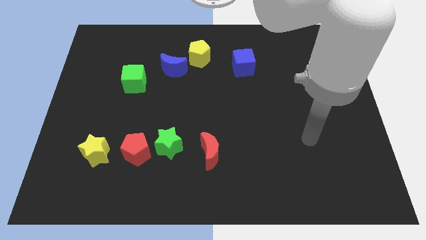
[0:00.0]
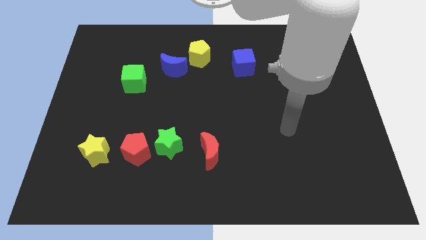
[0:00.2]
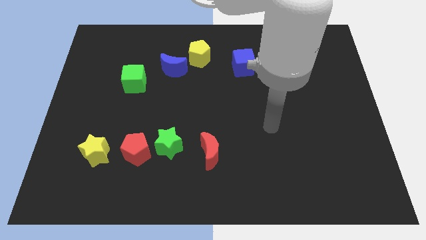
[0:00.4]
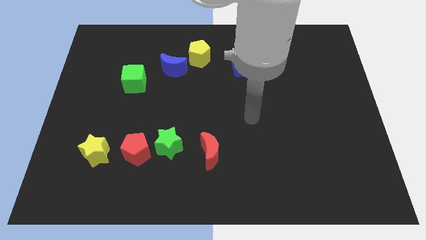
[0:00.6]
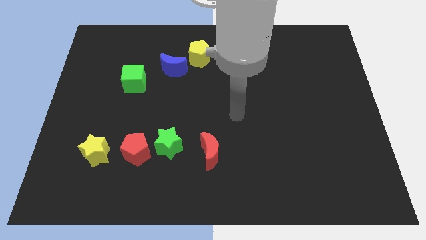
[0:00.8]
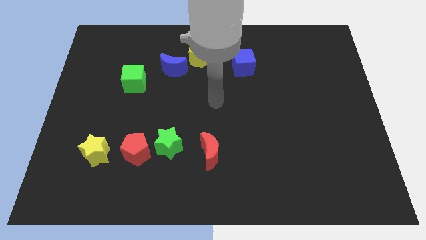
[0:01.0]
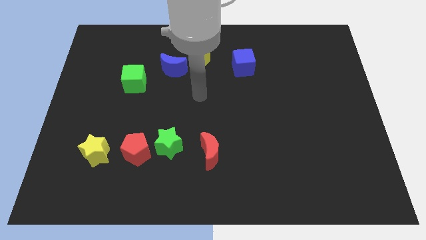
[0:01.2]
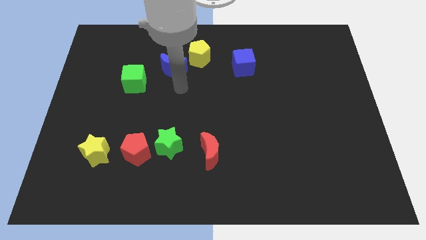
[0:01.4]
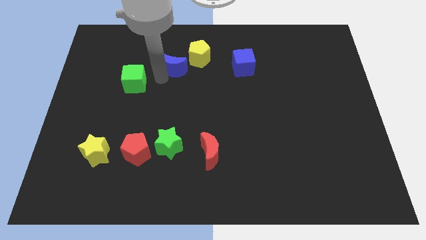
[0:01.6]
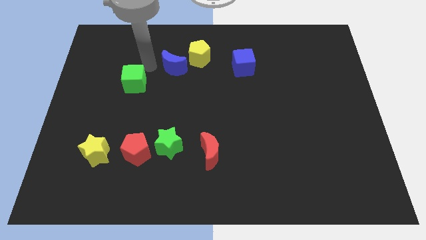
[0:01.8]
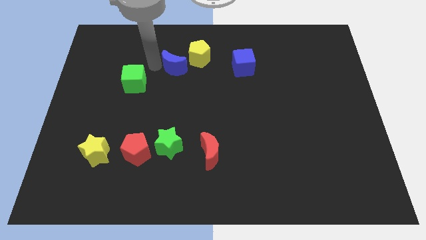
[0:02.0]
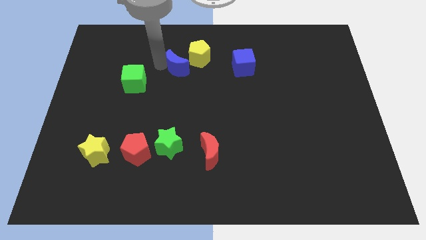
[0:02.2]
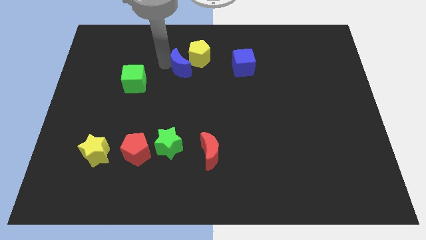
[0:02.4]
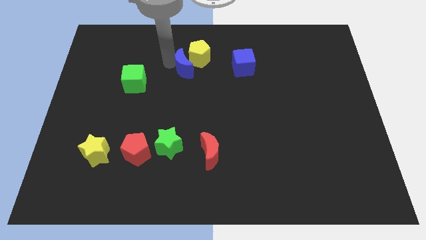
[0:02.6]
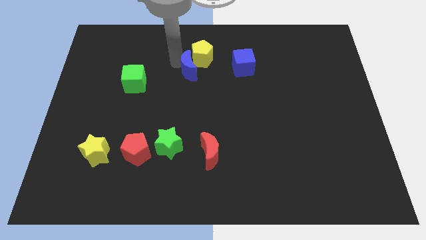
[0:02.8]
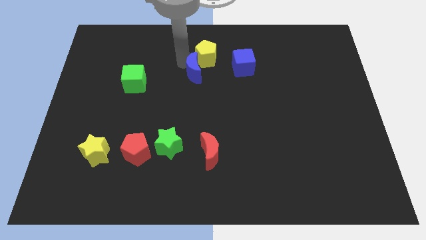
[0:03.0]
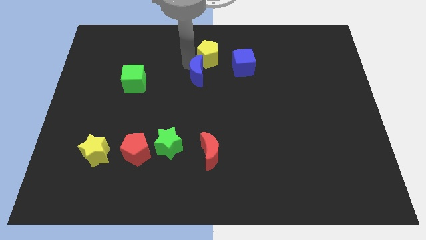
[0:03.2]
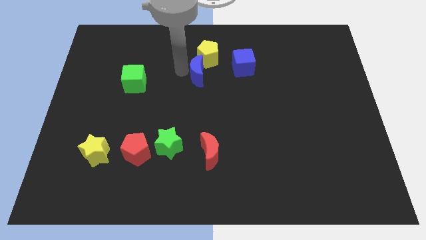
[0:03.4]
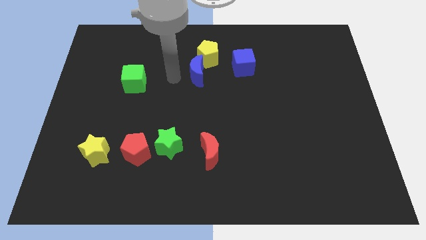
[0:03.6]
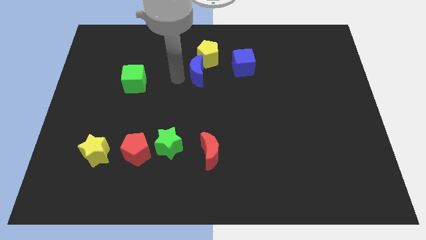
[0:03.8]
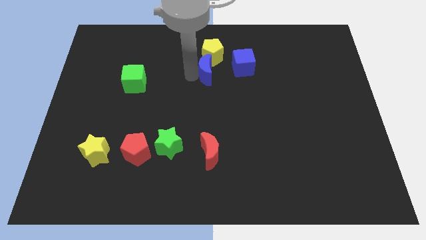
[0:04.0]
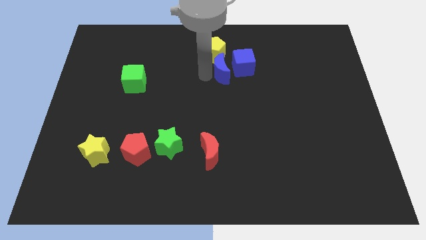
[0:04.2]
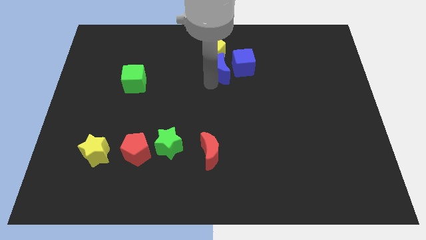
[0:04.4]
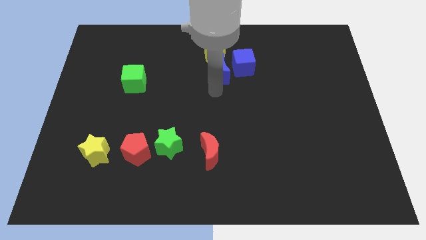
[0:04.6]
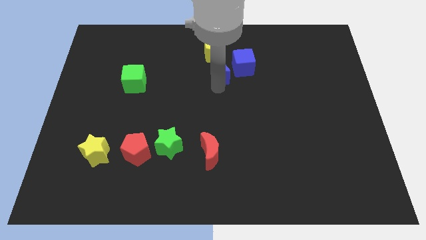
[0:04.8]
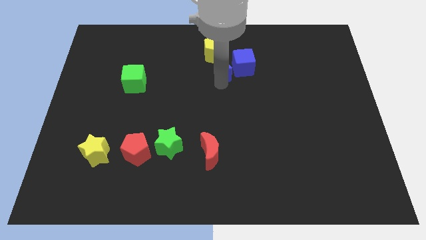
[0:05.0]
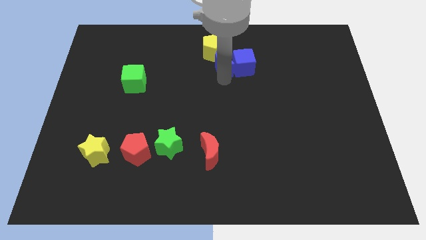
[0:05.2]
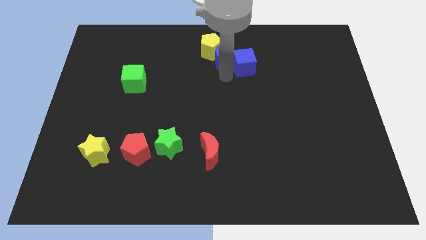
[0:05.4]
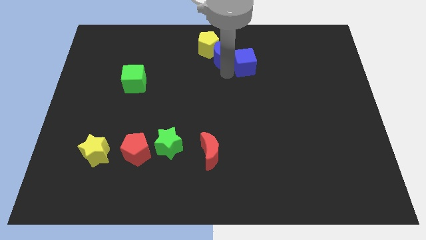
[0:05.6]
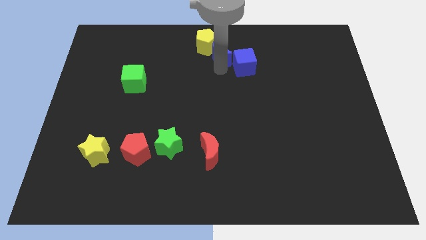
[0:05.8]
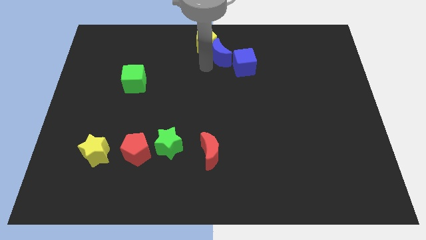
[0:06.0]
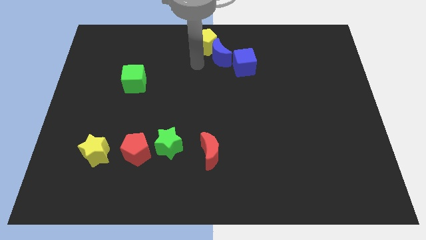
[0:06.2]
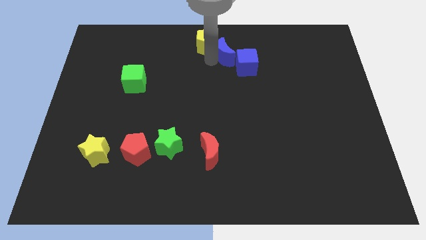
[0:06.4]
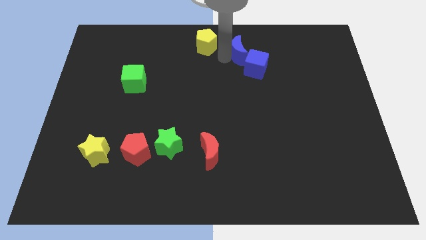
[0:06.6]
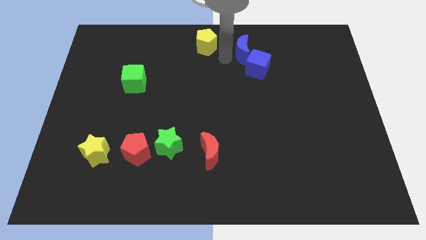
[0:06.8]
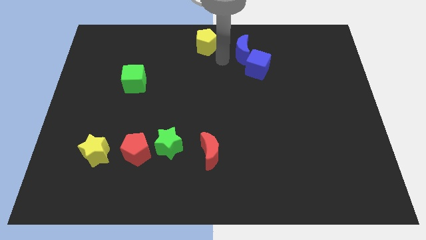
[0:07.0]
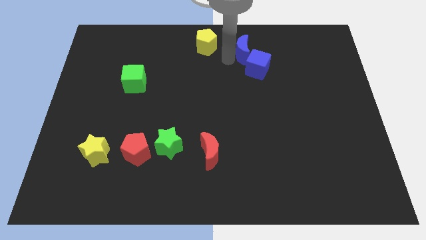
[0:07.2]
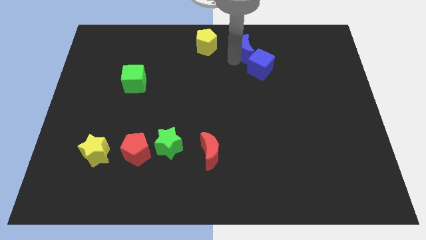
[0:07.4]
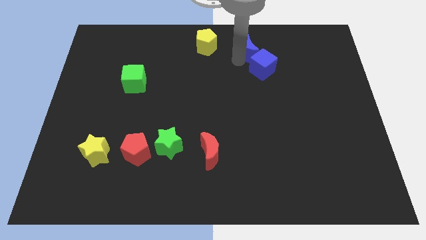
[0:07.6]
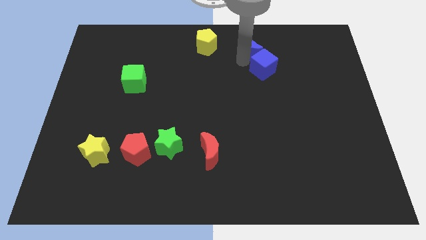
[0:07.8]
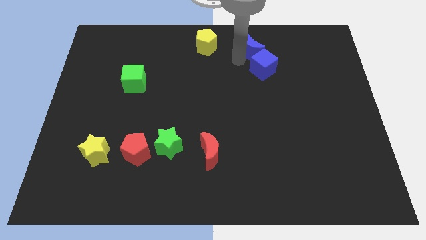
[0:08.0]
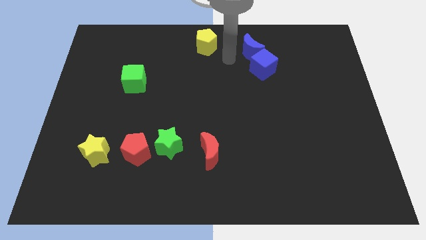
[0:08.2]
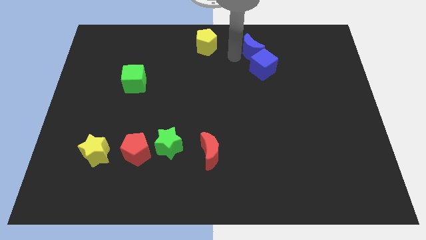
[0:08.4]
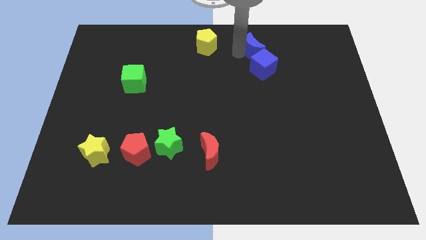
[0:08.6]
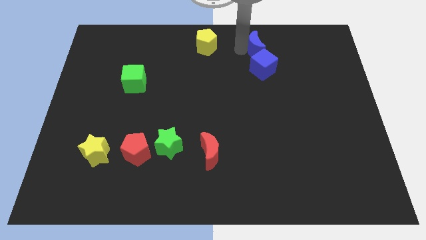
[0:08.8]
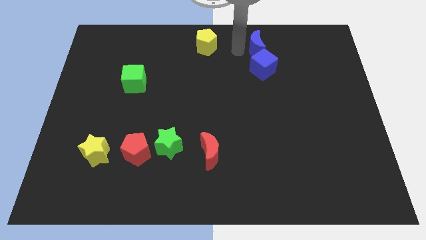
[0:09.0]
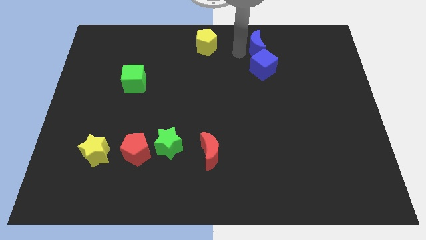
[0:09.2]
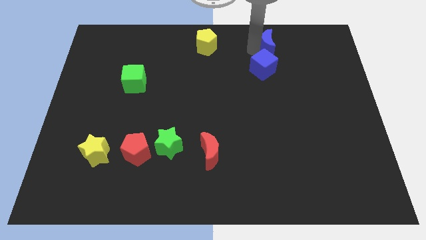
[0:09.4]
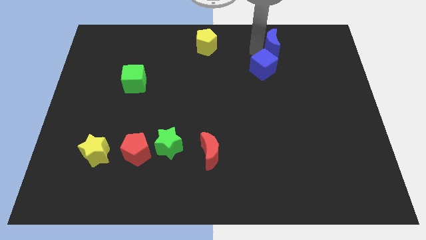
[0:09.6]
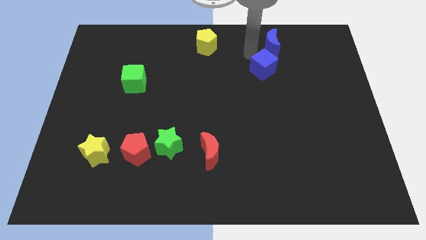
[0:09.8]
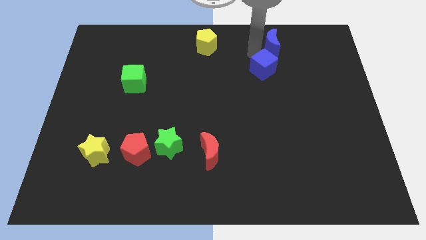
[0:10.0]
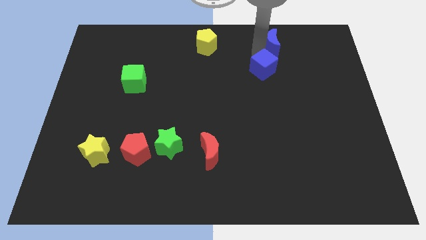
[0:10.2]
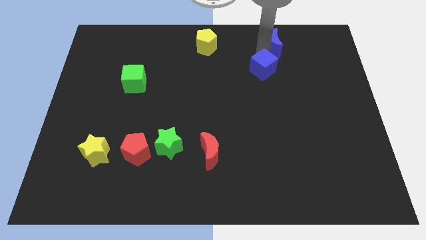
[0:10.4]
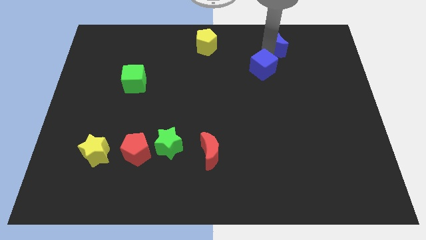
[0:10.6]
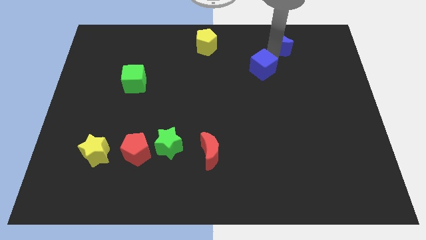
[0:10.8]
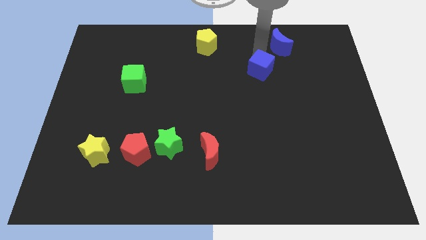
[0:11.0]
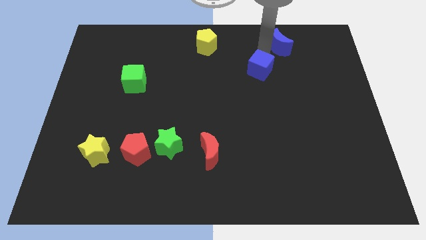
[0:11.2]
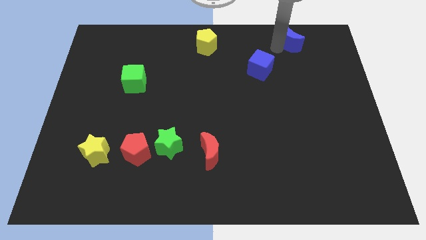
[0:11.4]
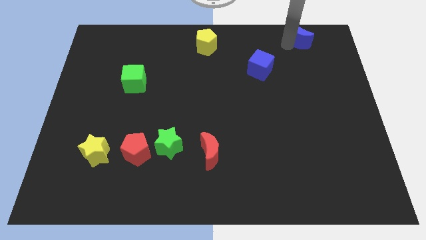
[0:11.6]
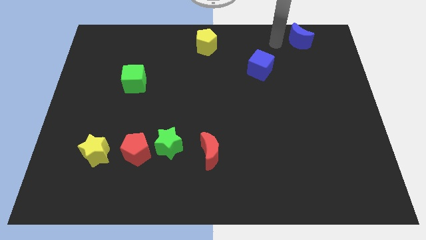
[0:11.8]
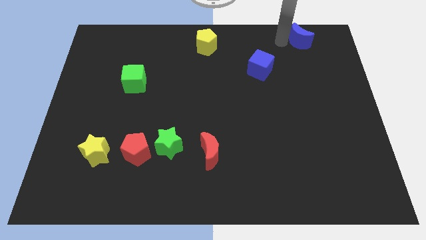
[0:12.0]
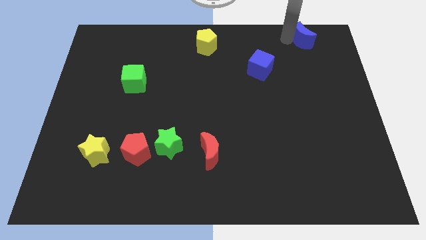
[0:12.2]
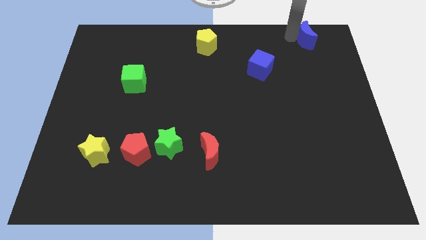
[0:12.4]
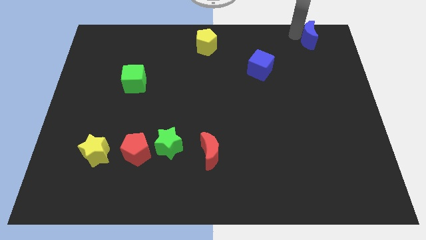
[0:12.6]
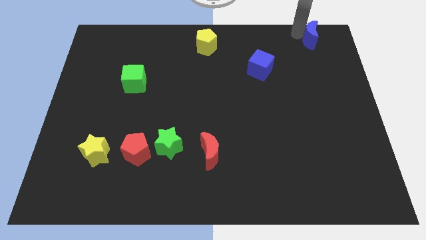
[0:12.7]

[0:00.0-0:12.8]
move the blue moon to the top right of the board
